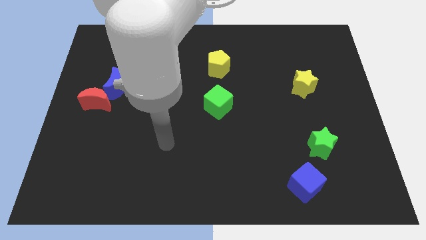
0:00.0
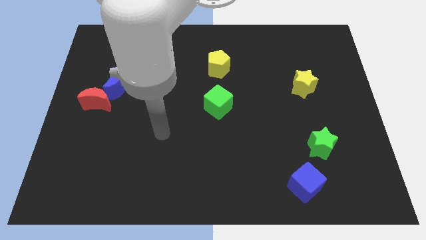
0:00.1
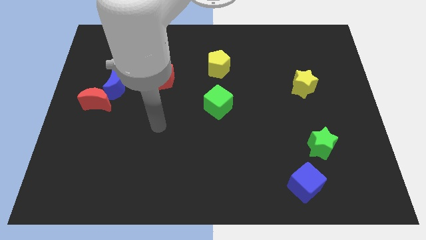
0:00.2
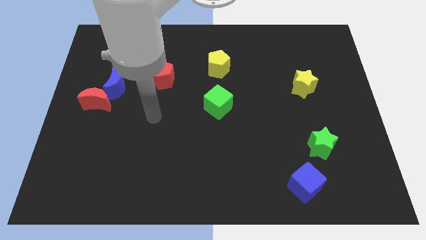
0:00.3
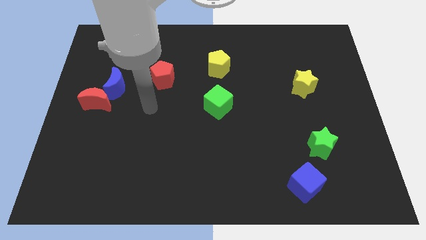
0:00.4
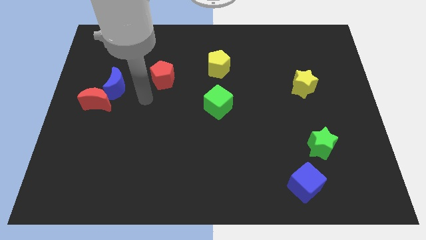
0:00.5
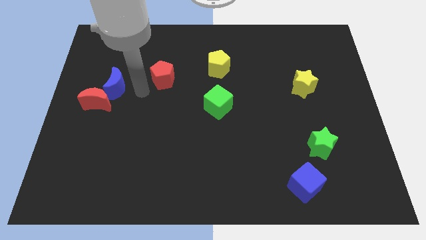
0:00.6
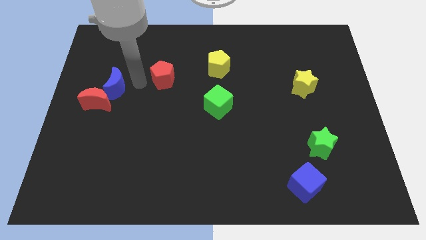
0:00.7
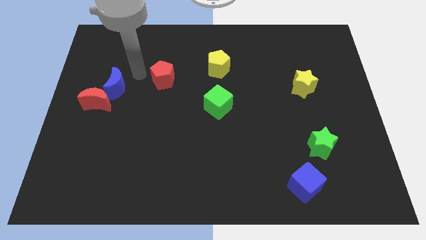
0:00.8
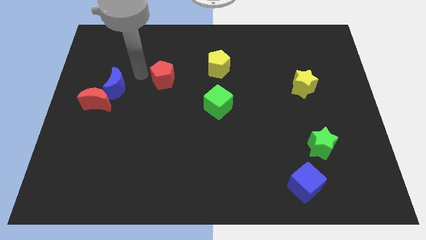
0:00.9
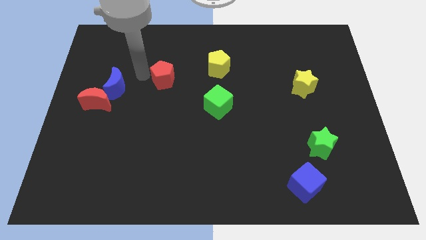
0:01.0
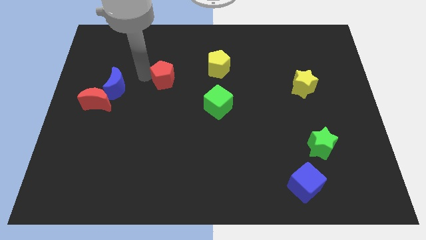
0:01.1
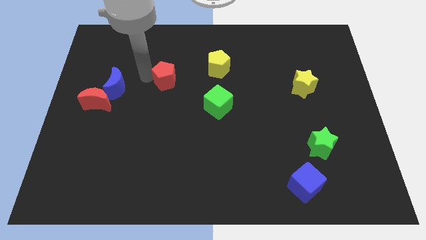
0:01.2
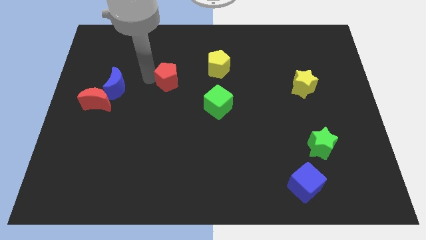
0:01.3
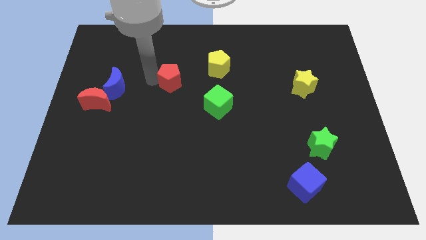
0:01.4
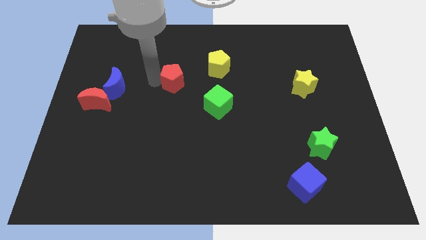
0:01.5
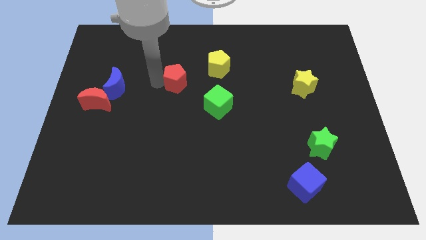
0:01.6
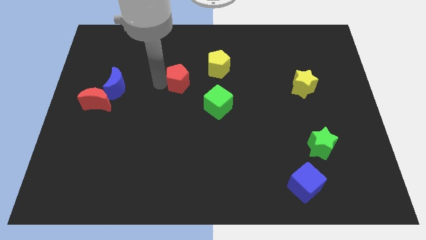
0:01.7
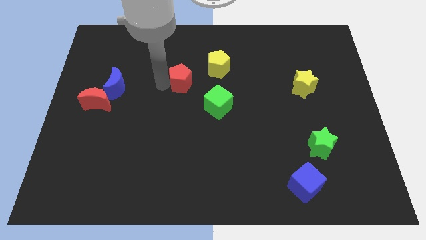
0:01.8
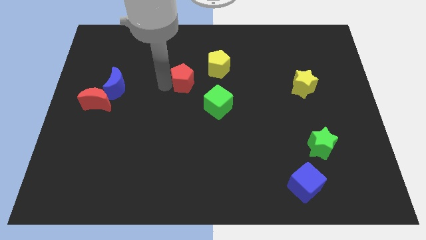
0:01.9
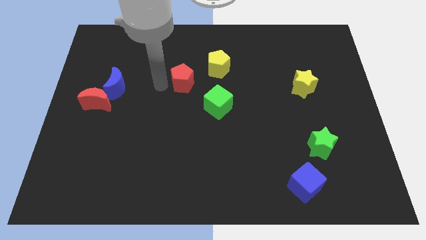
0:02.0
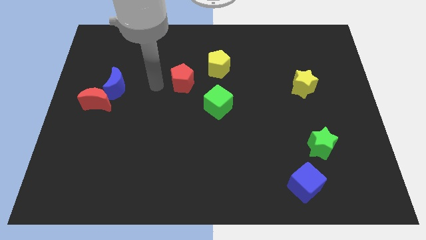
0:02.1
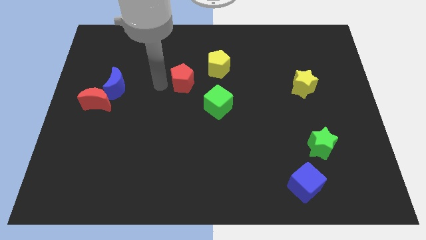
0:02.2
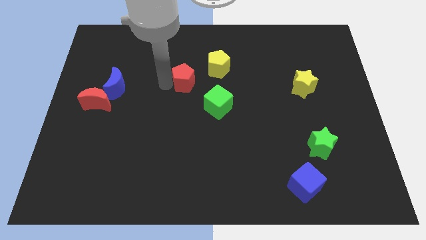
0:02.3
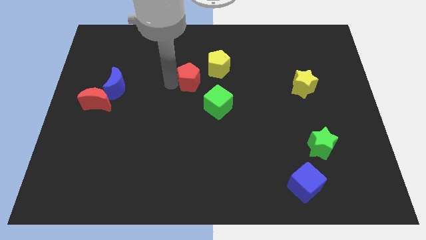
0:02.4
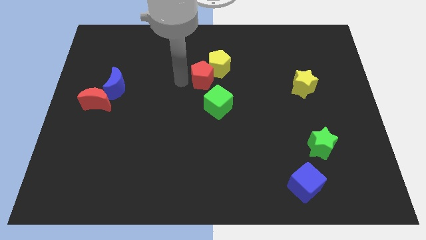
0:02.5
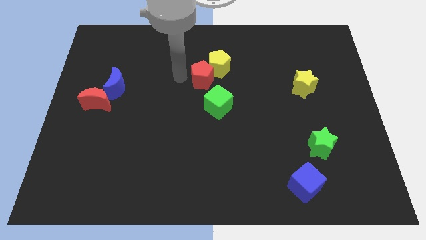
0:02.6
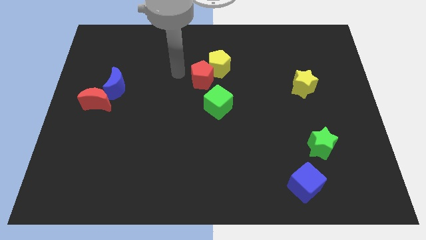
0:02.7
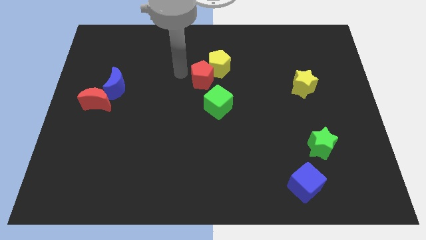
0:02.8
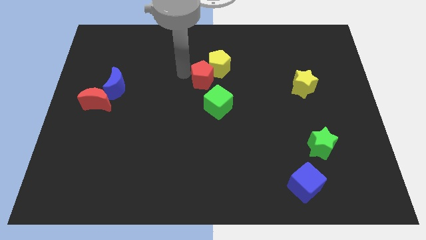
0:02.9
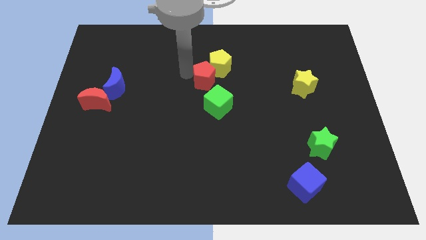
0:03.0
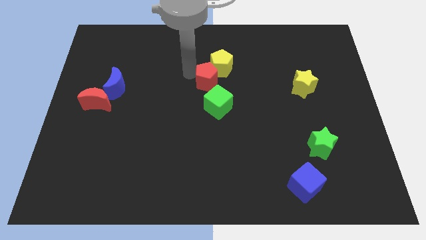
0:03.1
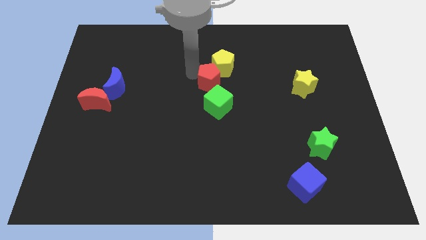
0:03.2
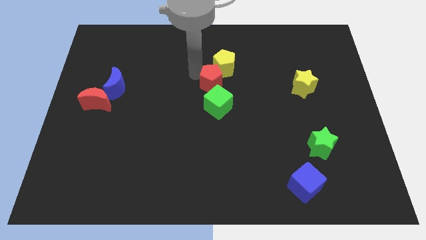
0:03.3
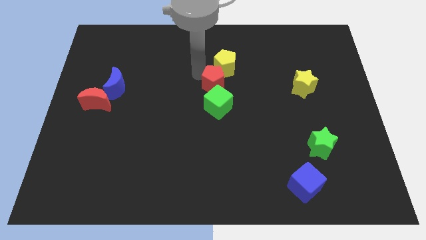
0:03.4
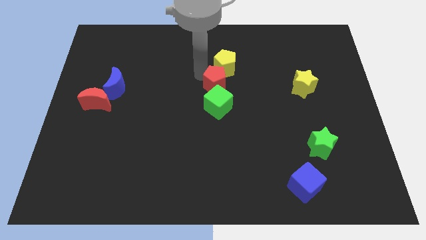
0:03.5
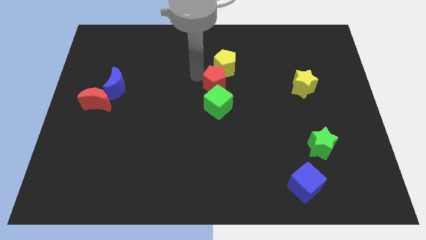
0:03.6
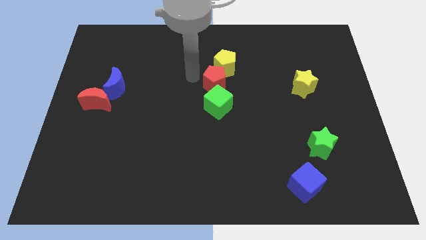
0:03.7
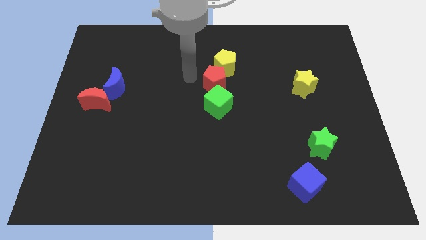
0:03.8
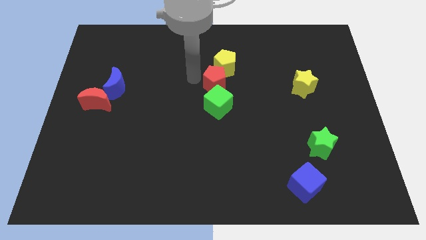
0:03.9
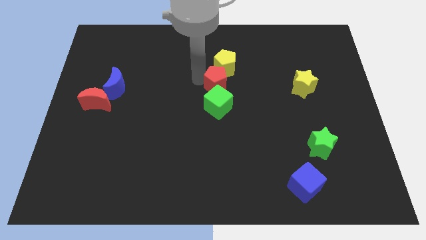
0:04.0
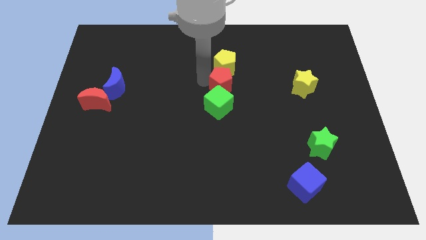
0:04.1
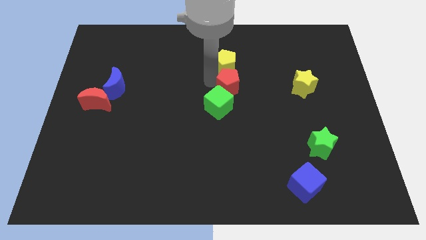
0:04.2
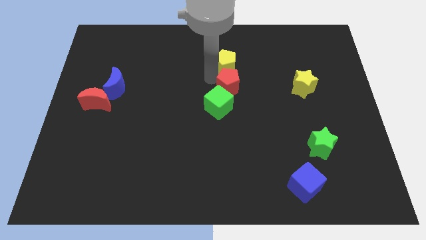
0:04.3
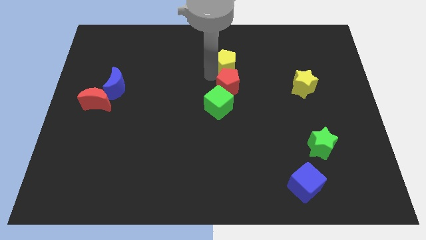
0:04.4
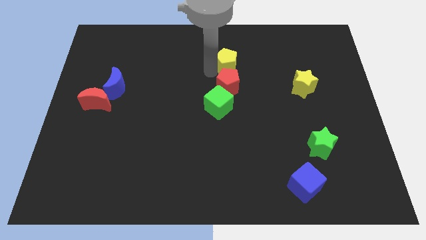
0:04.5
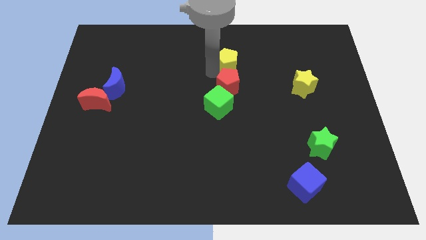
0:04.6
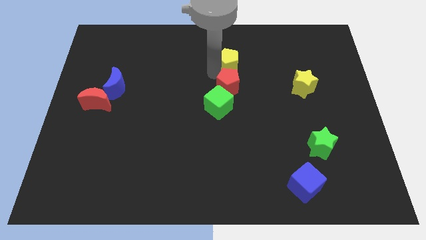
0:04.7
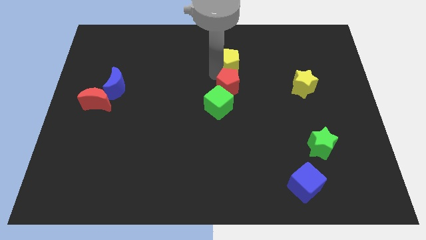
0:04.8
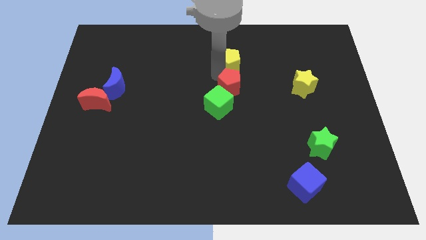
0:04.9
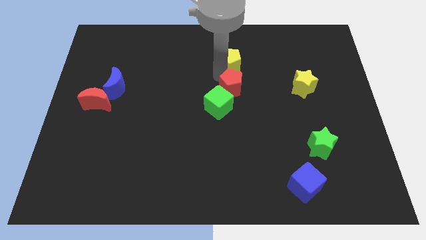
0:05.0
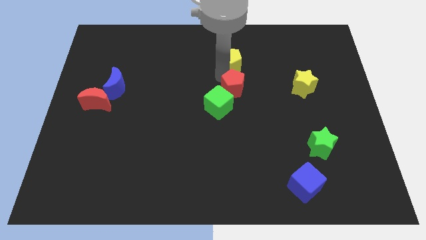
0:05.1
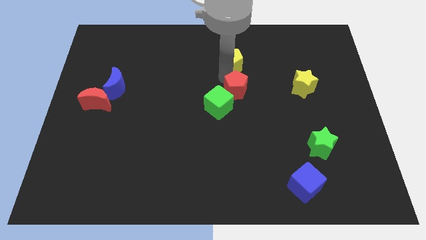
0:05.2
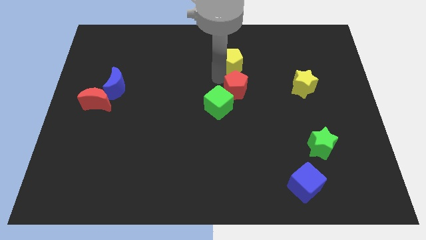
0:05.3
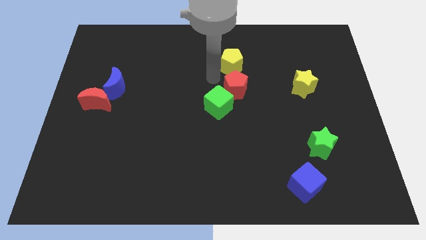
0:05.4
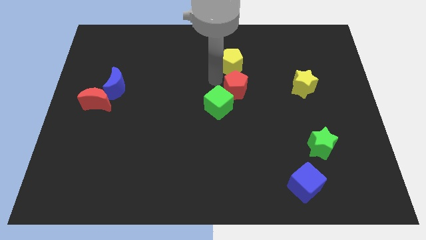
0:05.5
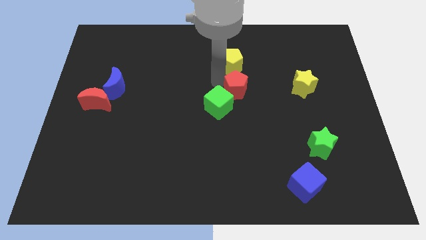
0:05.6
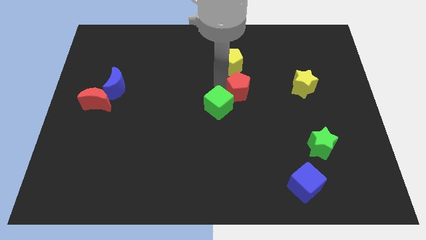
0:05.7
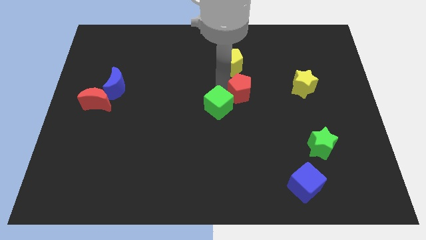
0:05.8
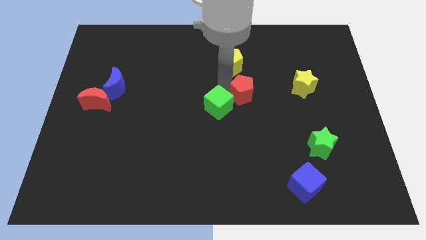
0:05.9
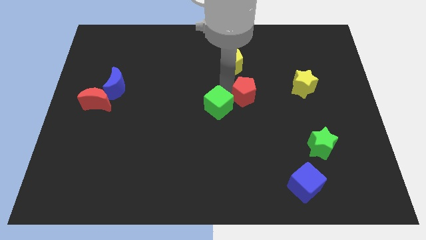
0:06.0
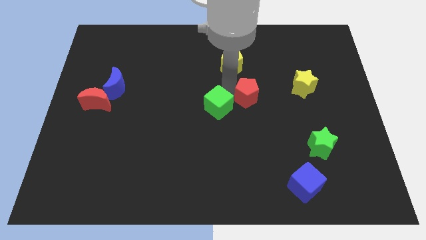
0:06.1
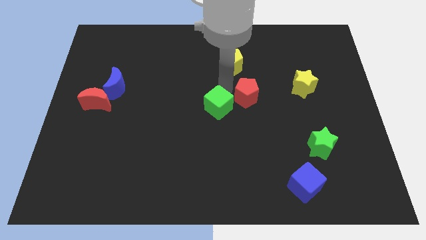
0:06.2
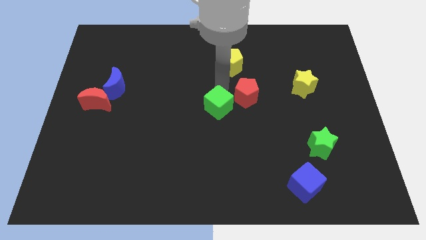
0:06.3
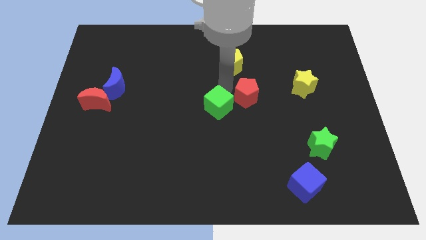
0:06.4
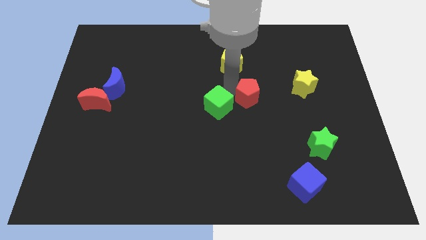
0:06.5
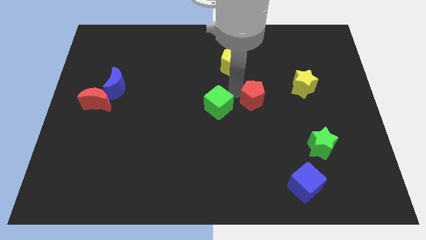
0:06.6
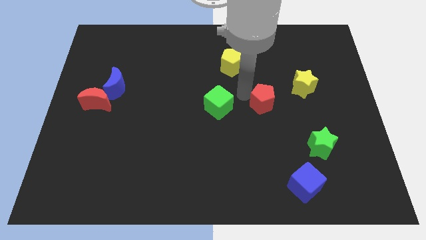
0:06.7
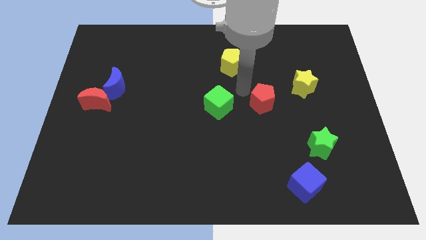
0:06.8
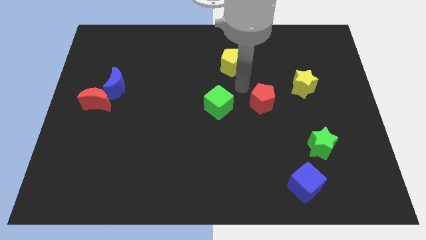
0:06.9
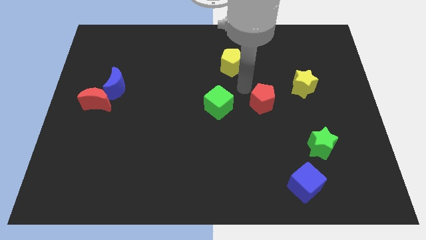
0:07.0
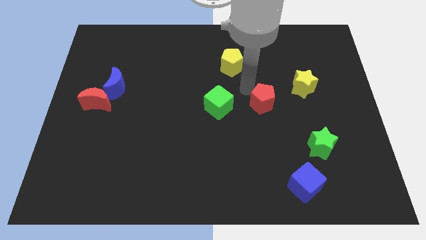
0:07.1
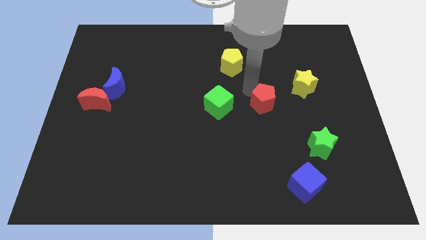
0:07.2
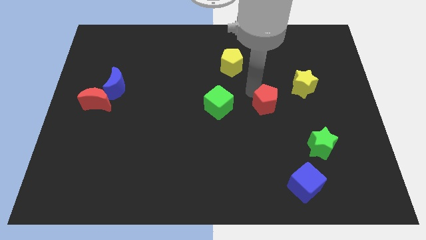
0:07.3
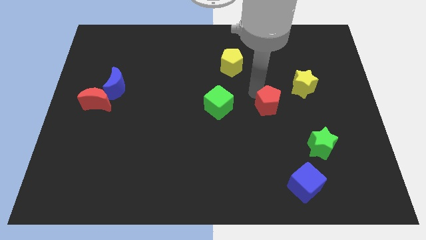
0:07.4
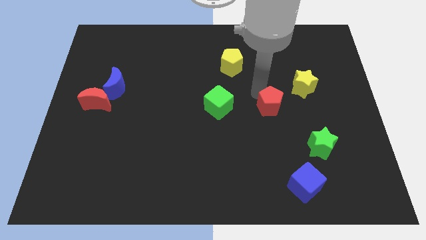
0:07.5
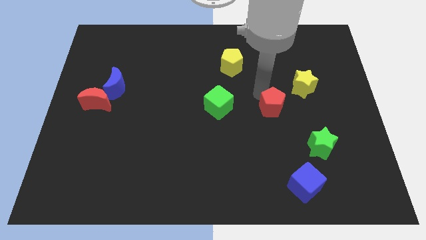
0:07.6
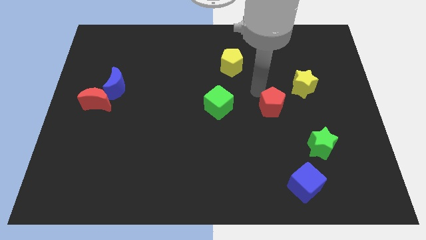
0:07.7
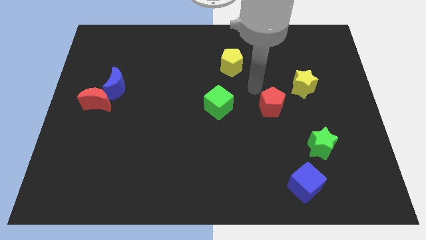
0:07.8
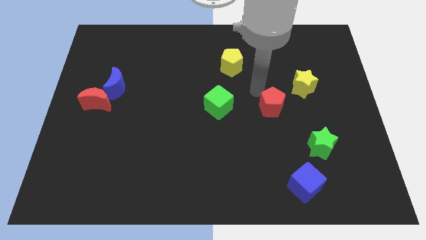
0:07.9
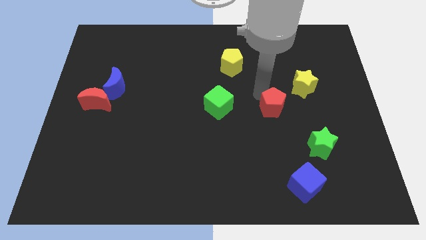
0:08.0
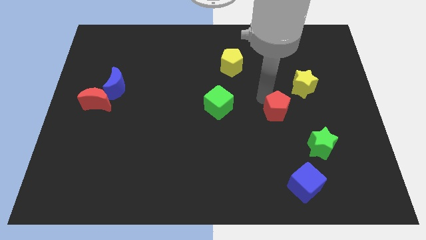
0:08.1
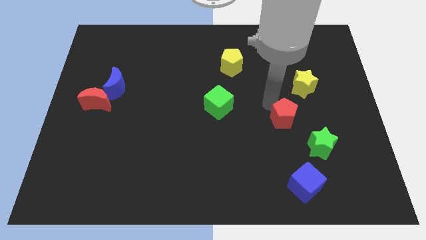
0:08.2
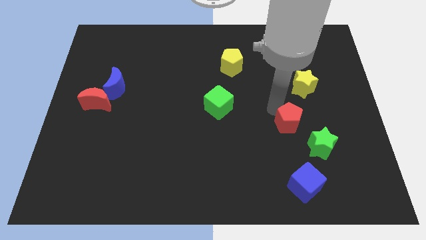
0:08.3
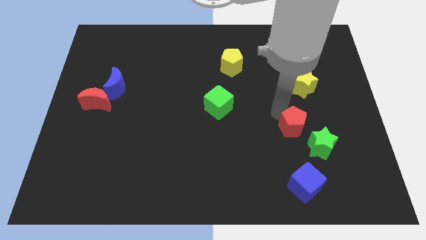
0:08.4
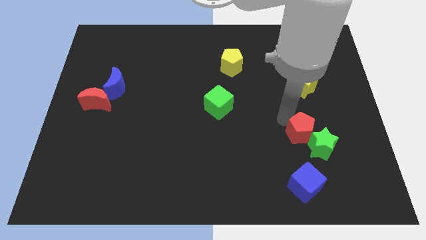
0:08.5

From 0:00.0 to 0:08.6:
slide the red pentagon close to the green star
